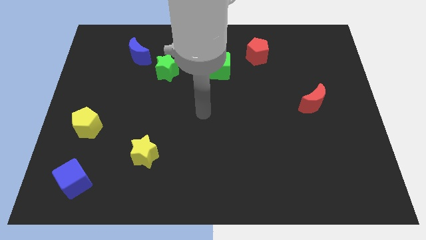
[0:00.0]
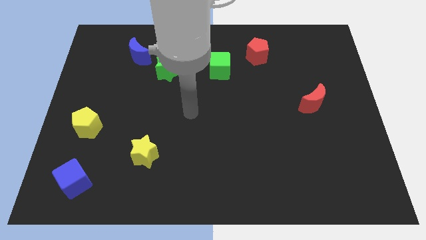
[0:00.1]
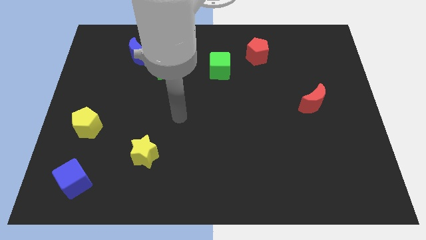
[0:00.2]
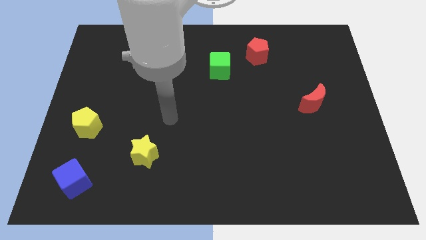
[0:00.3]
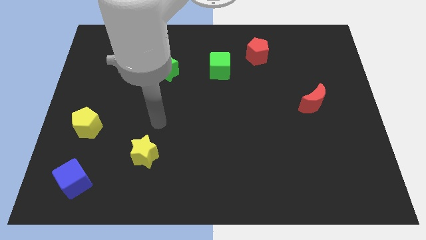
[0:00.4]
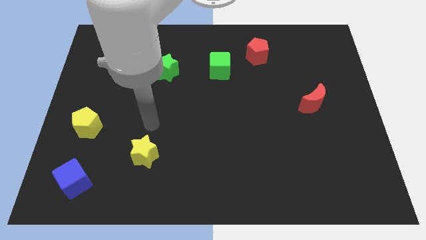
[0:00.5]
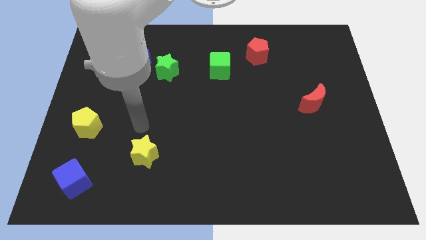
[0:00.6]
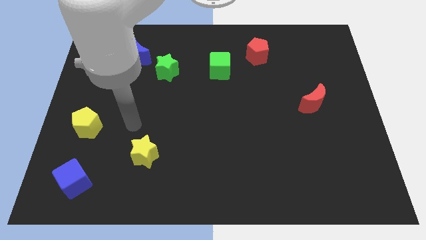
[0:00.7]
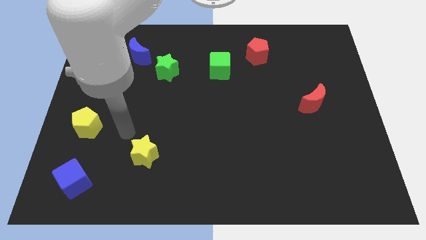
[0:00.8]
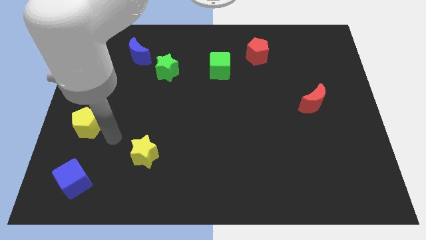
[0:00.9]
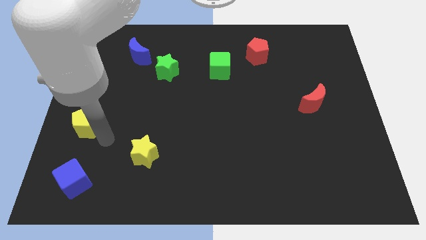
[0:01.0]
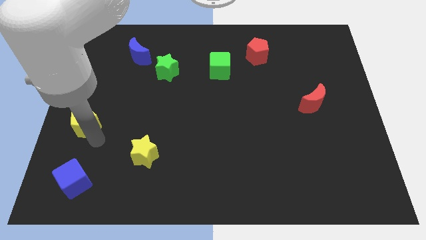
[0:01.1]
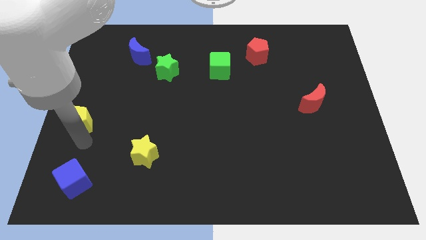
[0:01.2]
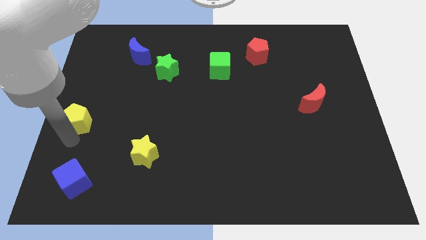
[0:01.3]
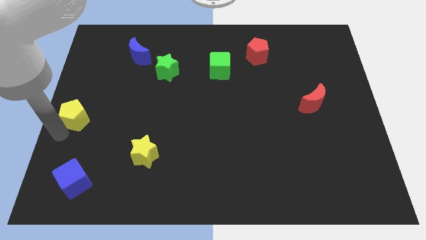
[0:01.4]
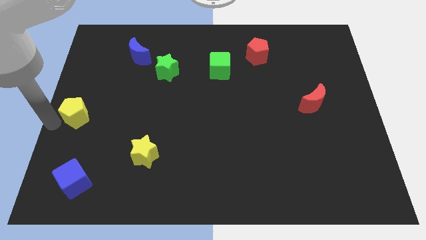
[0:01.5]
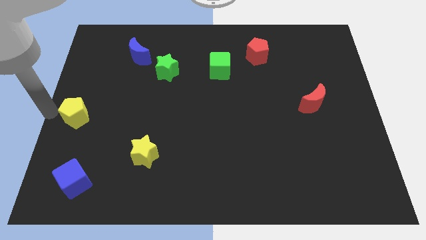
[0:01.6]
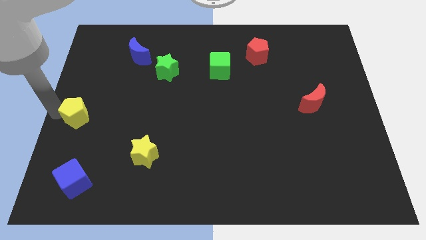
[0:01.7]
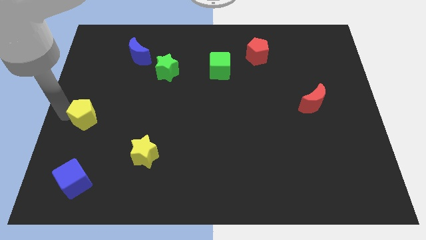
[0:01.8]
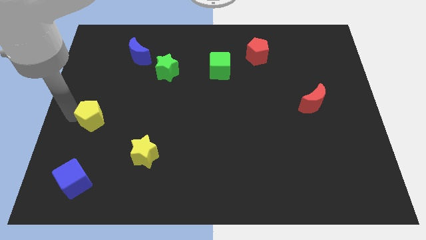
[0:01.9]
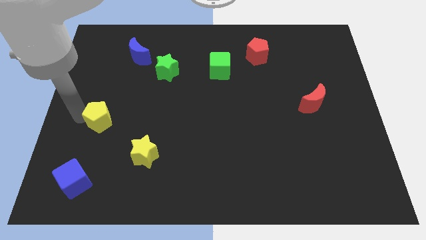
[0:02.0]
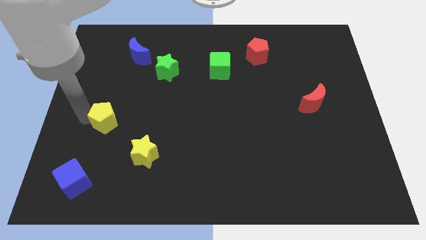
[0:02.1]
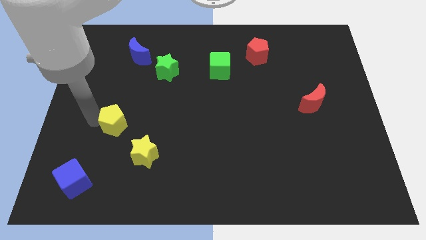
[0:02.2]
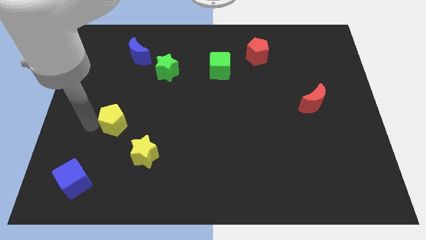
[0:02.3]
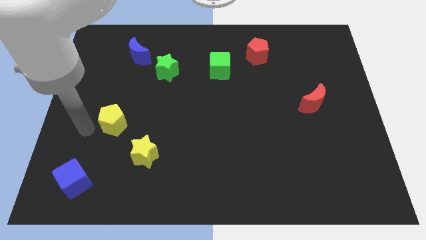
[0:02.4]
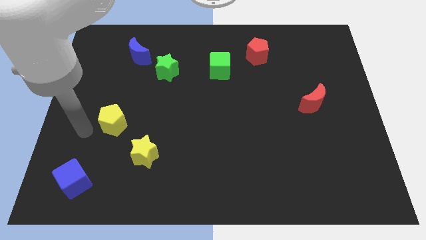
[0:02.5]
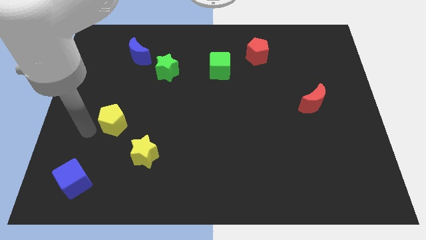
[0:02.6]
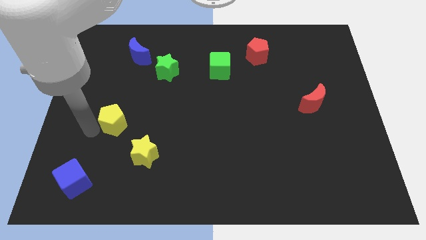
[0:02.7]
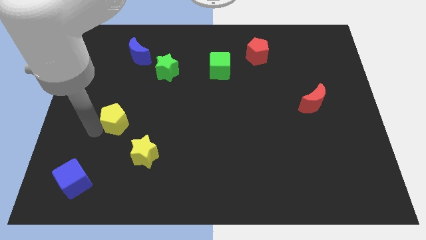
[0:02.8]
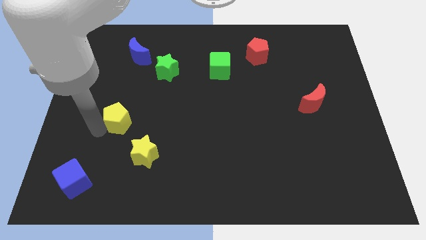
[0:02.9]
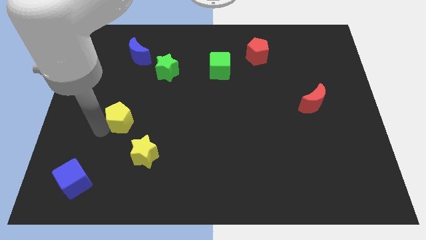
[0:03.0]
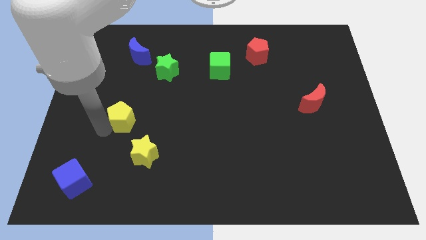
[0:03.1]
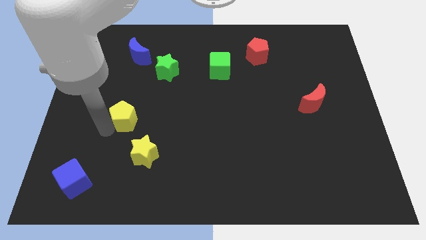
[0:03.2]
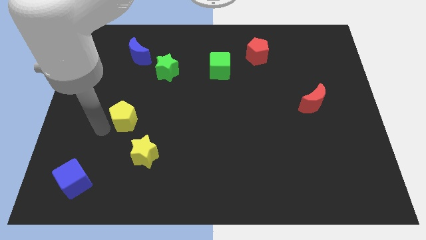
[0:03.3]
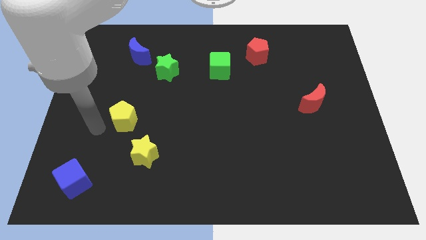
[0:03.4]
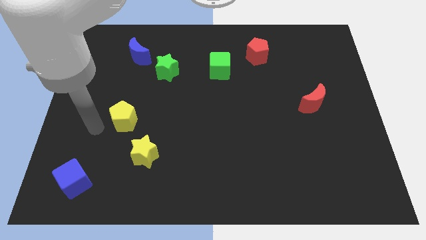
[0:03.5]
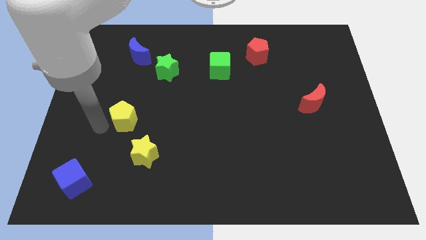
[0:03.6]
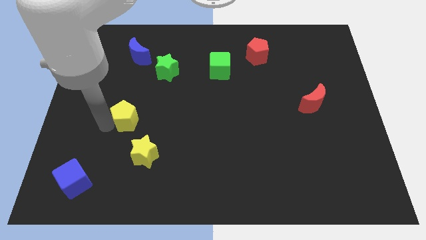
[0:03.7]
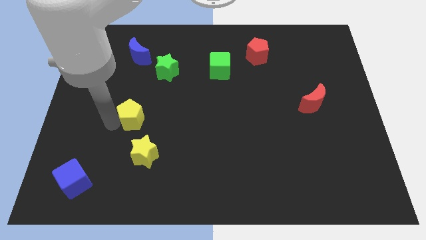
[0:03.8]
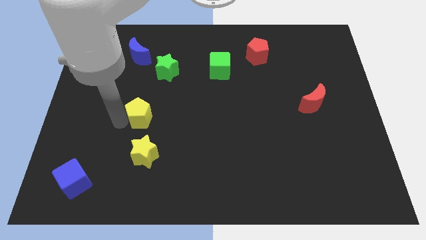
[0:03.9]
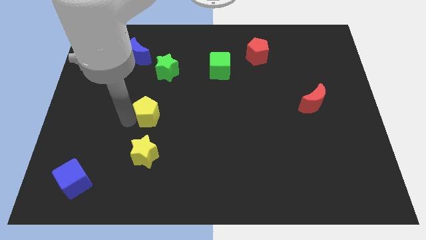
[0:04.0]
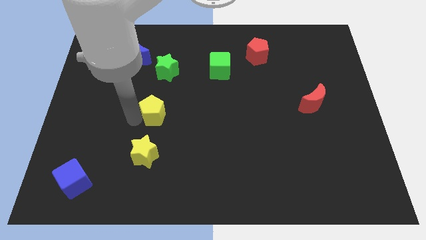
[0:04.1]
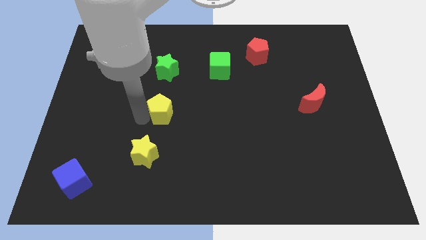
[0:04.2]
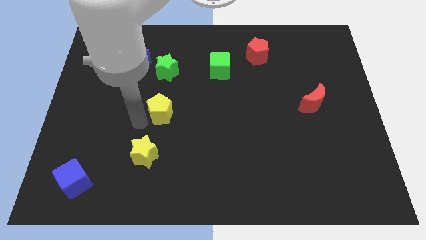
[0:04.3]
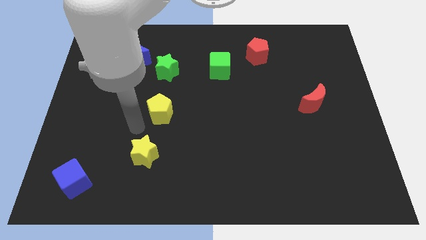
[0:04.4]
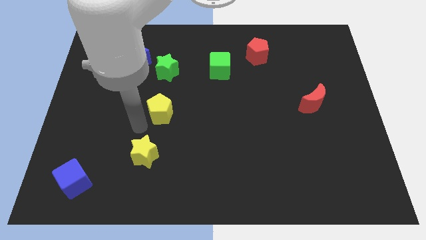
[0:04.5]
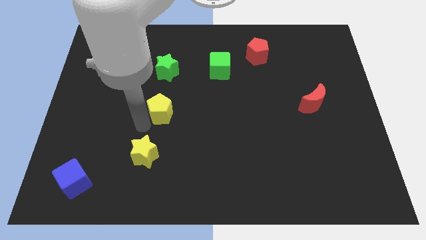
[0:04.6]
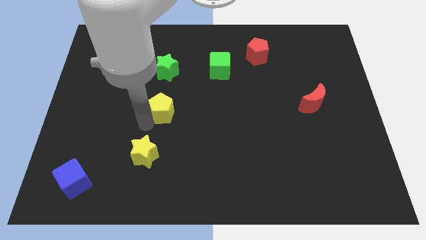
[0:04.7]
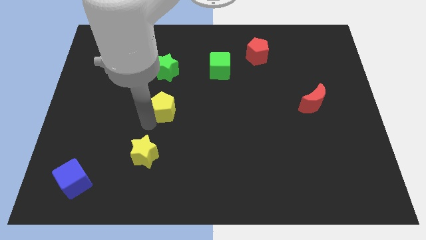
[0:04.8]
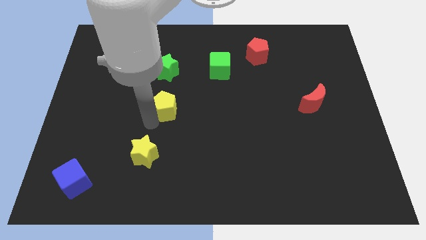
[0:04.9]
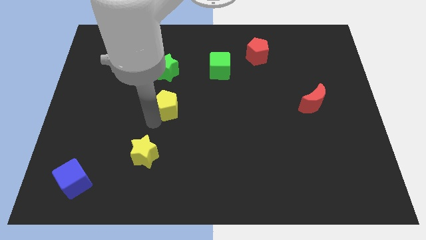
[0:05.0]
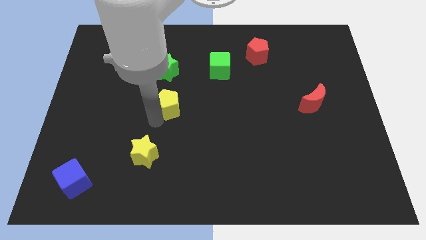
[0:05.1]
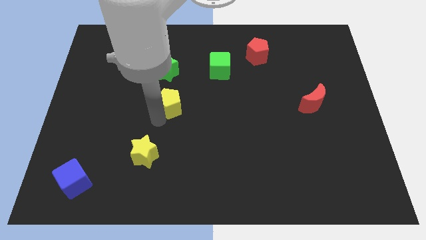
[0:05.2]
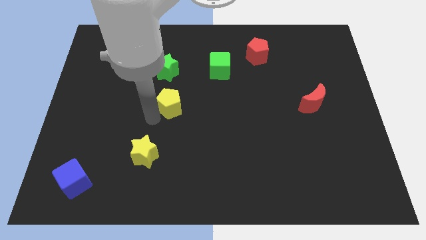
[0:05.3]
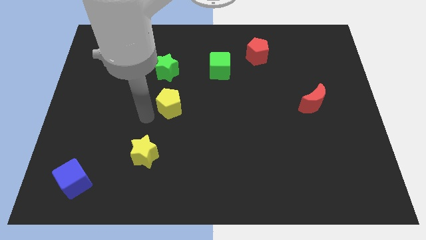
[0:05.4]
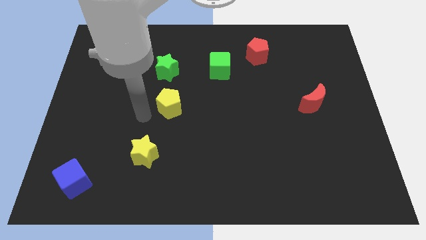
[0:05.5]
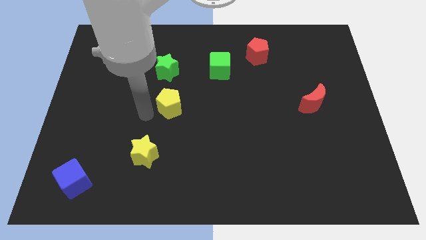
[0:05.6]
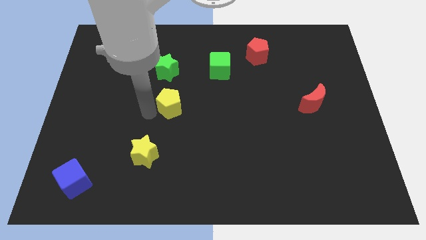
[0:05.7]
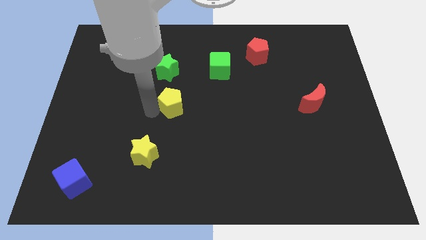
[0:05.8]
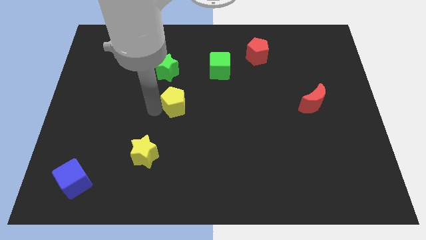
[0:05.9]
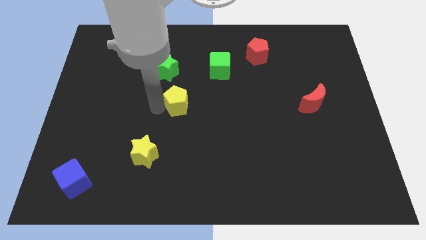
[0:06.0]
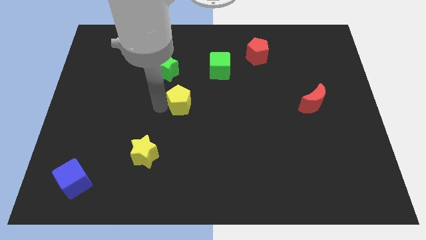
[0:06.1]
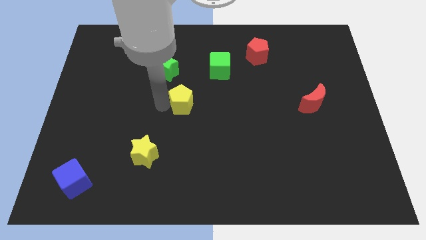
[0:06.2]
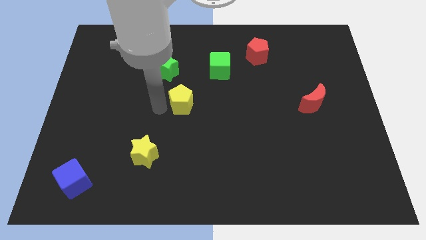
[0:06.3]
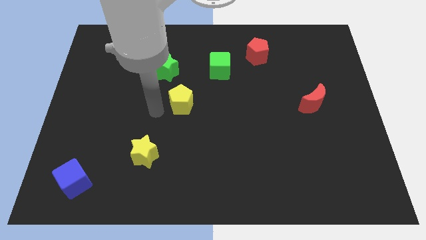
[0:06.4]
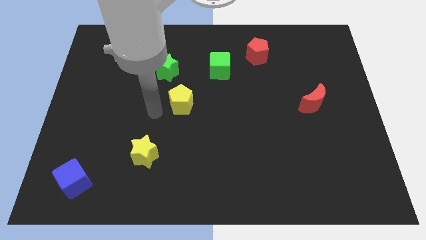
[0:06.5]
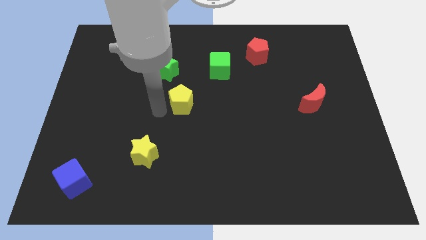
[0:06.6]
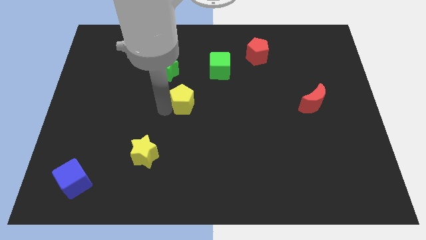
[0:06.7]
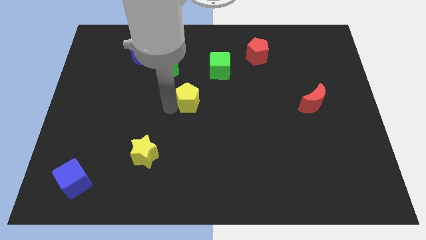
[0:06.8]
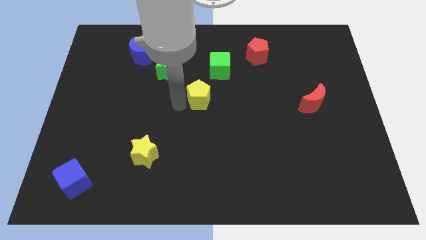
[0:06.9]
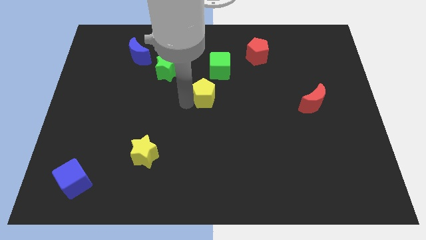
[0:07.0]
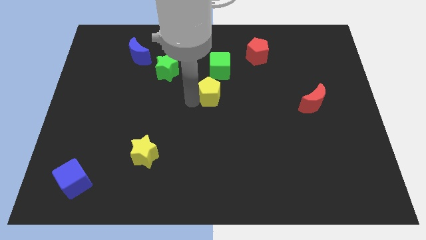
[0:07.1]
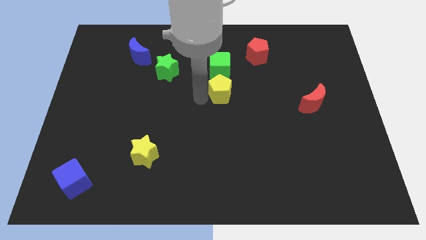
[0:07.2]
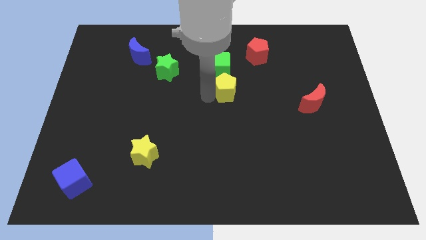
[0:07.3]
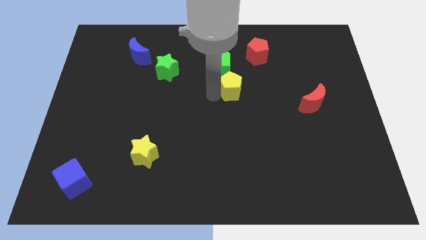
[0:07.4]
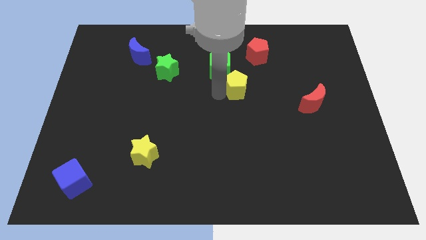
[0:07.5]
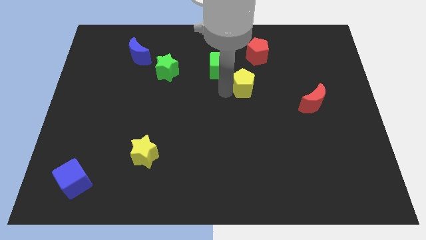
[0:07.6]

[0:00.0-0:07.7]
push the yellow pentagon below the red pentagon
